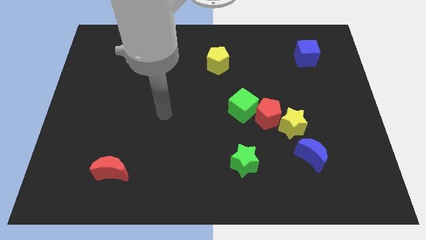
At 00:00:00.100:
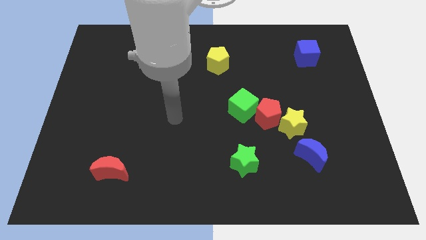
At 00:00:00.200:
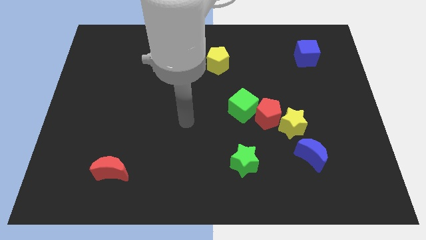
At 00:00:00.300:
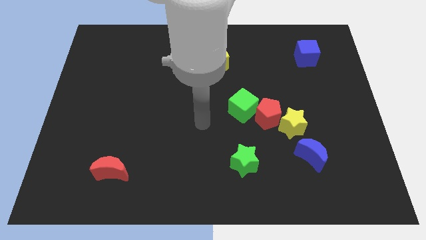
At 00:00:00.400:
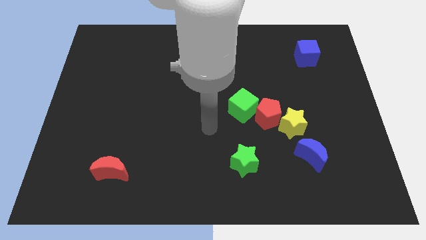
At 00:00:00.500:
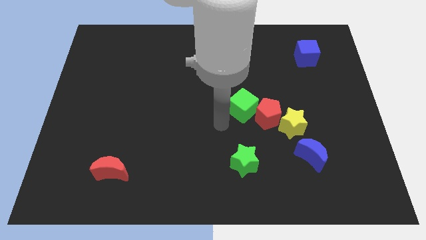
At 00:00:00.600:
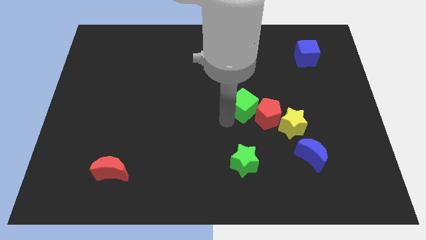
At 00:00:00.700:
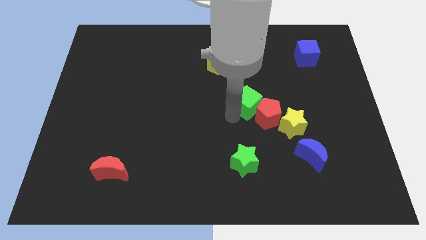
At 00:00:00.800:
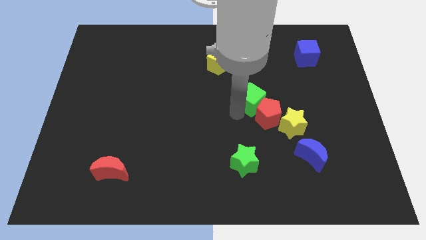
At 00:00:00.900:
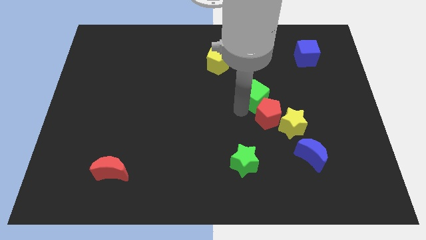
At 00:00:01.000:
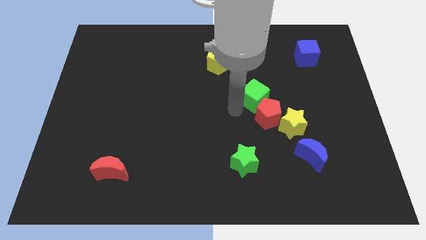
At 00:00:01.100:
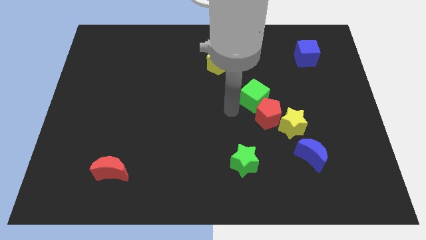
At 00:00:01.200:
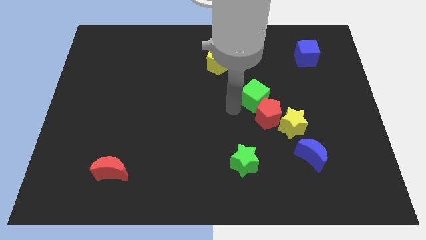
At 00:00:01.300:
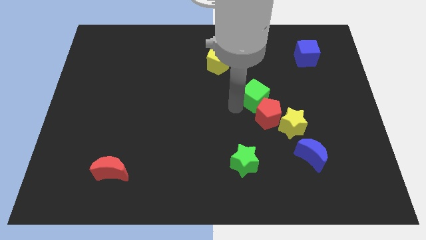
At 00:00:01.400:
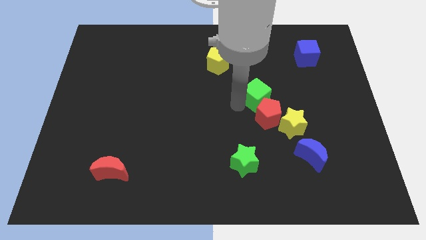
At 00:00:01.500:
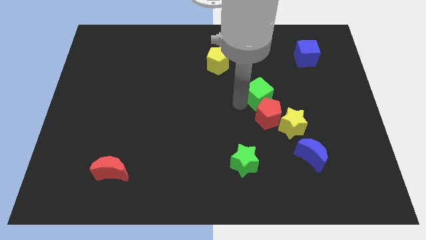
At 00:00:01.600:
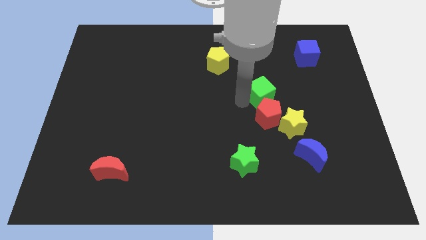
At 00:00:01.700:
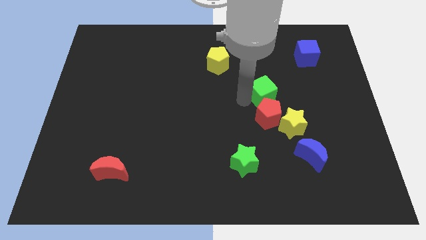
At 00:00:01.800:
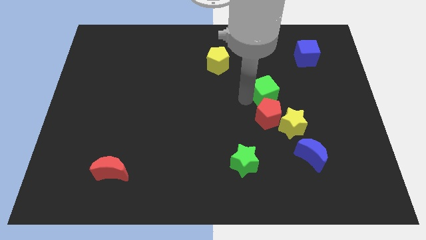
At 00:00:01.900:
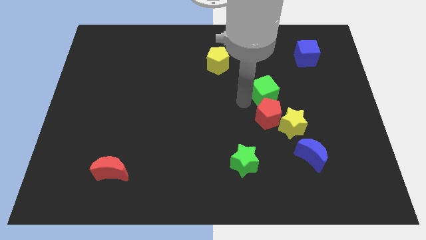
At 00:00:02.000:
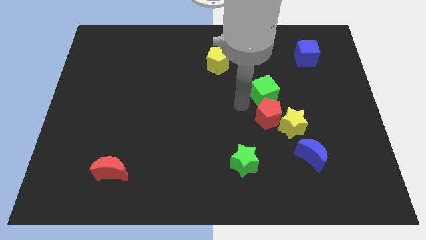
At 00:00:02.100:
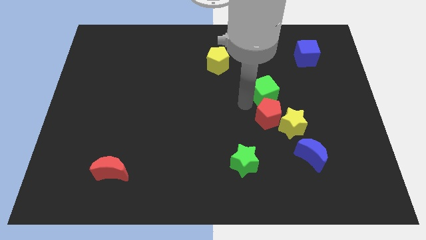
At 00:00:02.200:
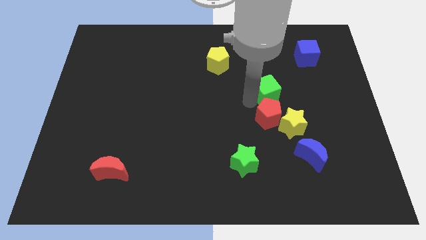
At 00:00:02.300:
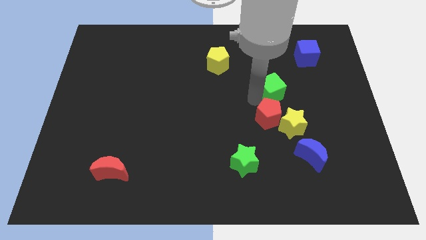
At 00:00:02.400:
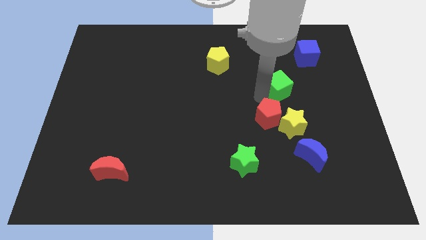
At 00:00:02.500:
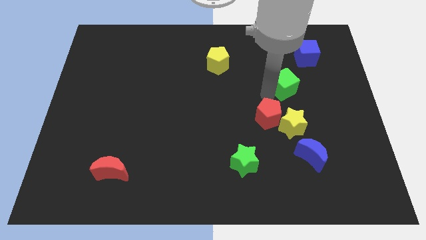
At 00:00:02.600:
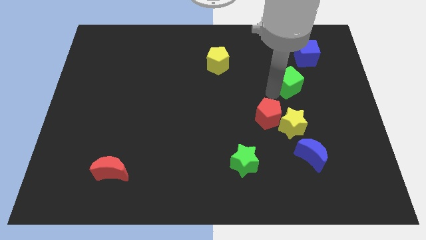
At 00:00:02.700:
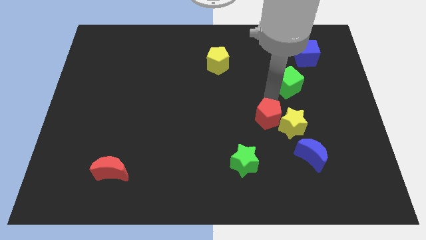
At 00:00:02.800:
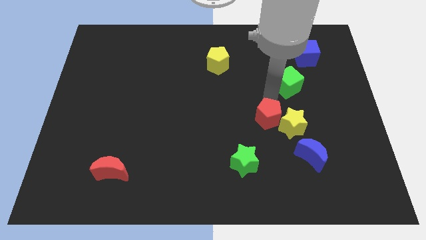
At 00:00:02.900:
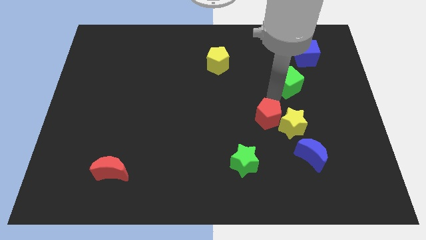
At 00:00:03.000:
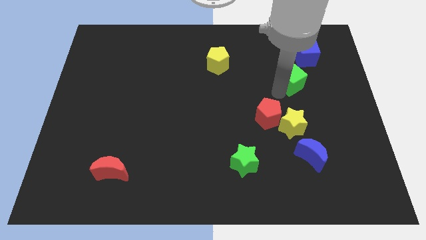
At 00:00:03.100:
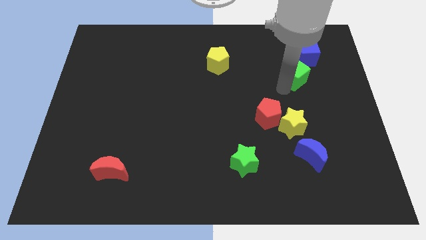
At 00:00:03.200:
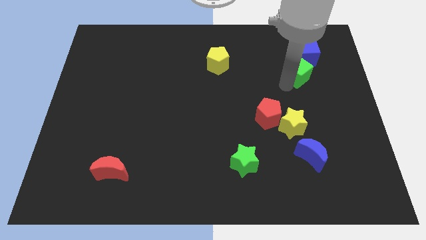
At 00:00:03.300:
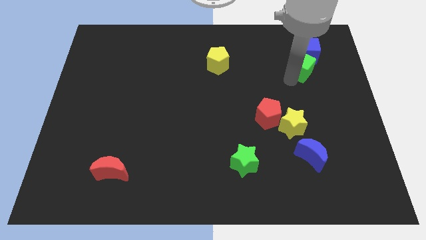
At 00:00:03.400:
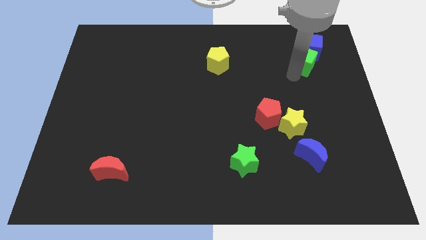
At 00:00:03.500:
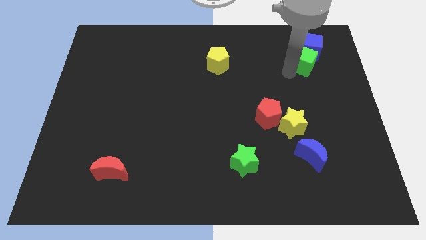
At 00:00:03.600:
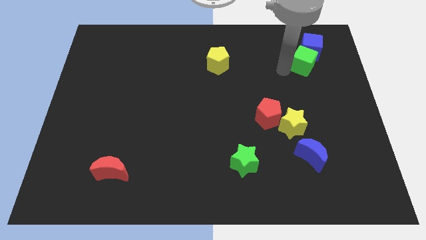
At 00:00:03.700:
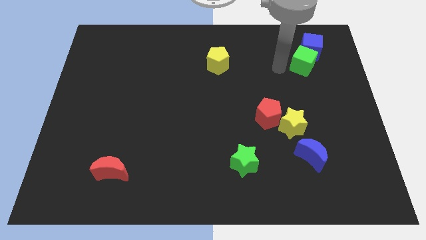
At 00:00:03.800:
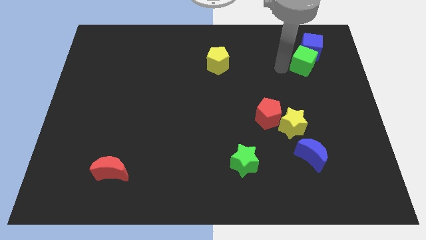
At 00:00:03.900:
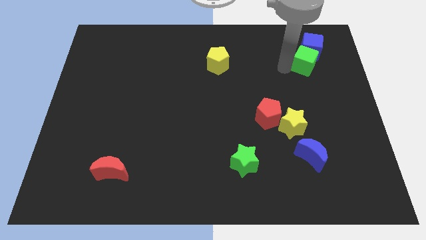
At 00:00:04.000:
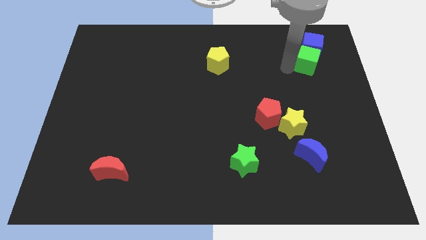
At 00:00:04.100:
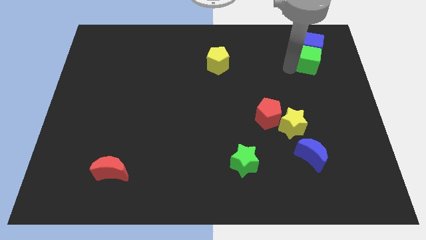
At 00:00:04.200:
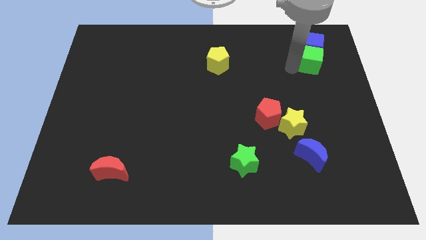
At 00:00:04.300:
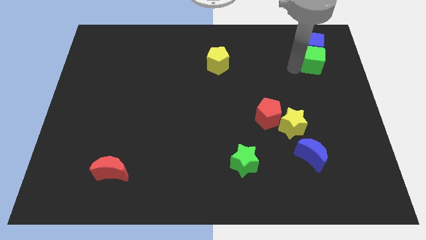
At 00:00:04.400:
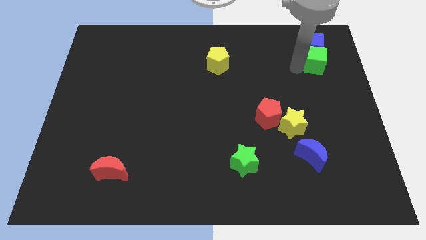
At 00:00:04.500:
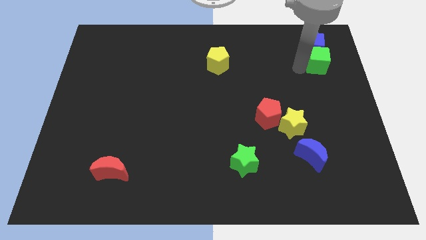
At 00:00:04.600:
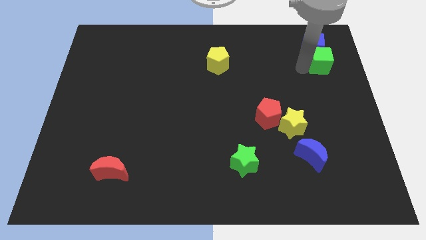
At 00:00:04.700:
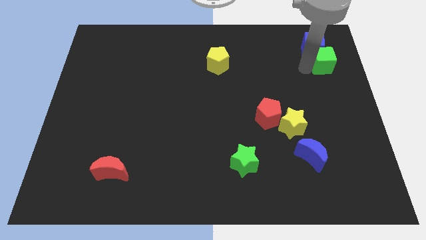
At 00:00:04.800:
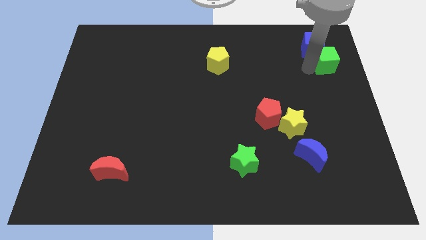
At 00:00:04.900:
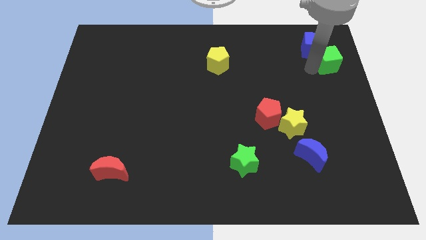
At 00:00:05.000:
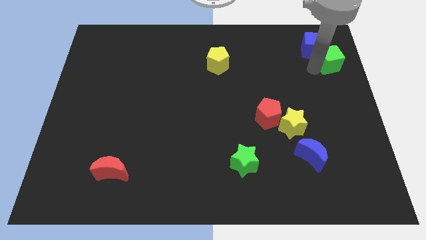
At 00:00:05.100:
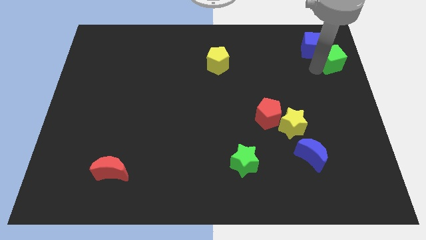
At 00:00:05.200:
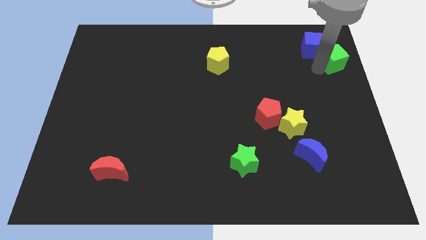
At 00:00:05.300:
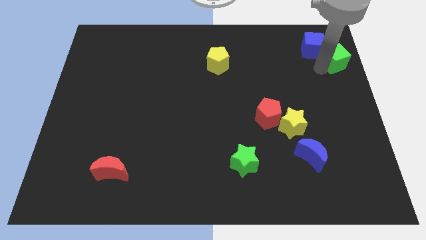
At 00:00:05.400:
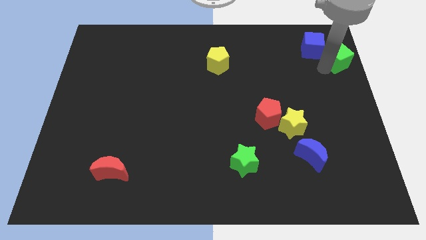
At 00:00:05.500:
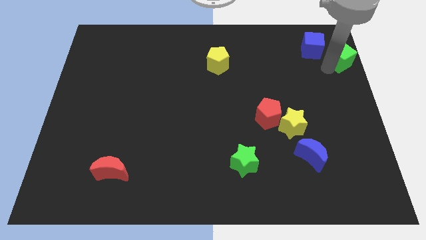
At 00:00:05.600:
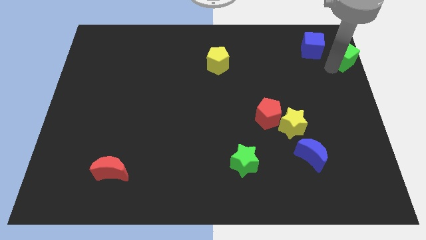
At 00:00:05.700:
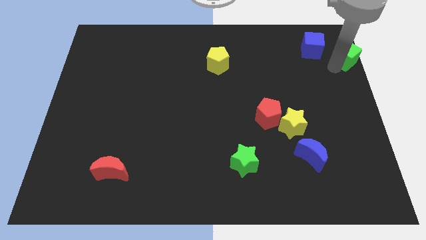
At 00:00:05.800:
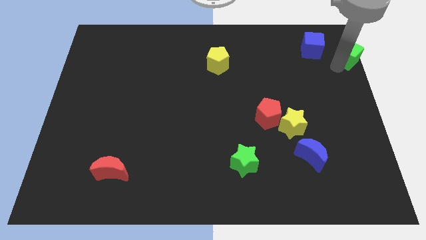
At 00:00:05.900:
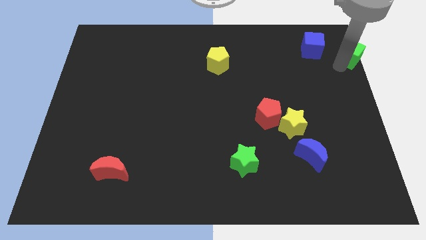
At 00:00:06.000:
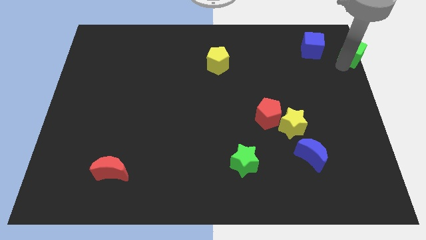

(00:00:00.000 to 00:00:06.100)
push the green cube to the top right of the board
